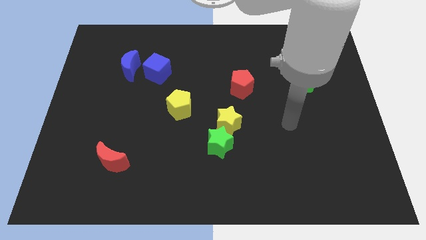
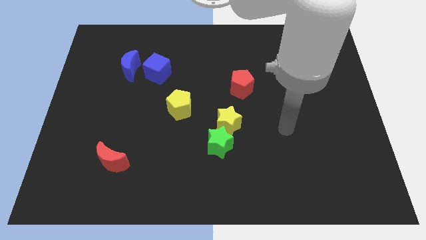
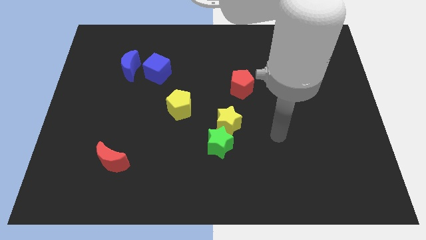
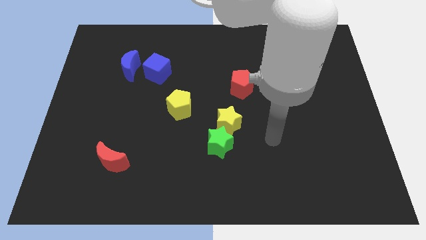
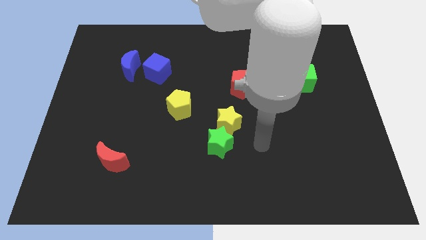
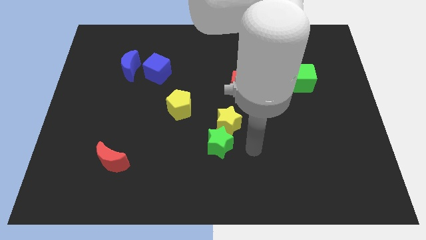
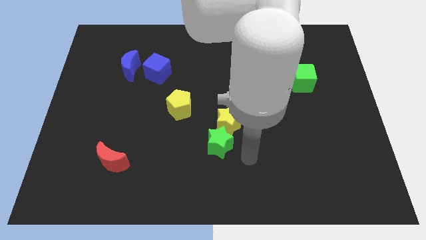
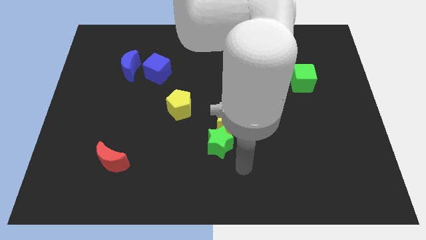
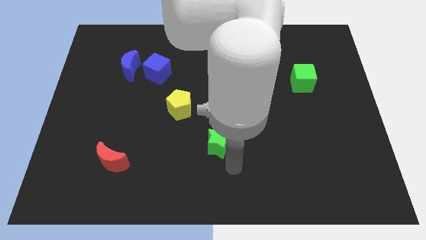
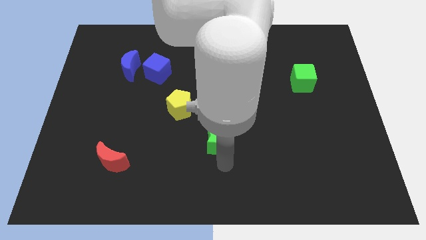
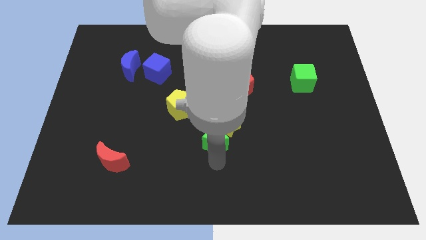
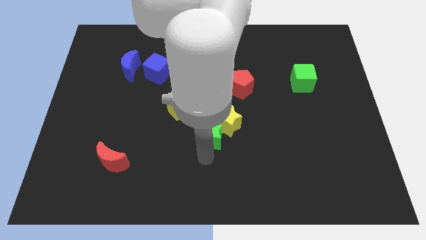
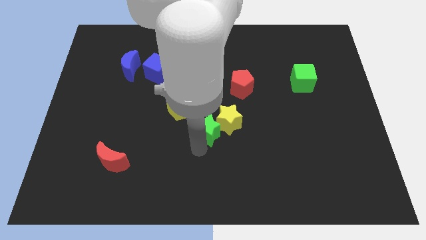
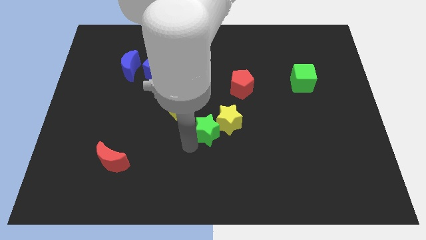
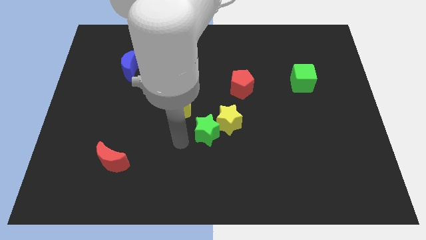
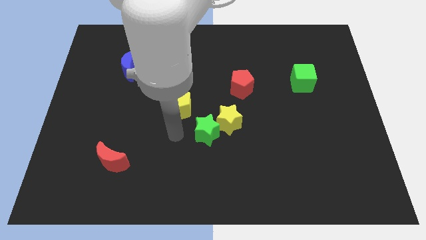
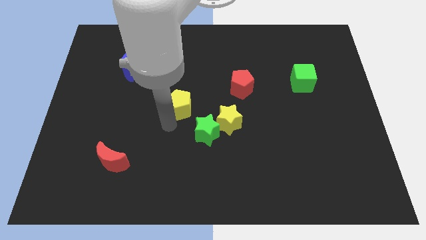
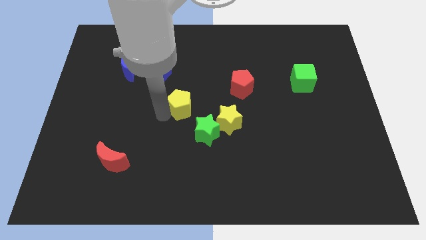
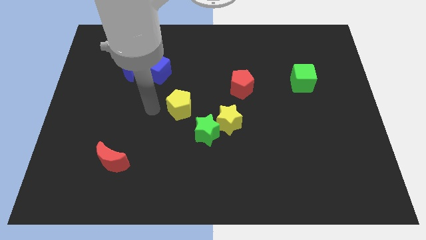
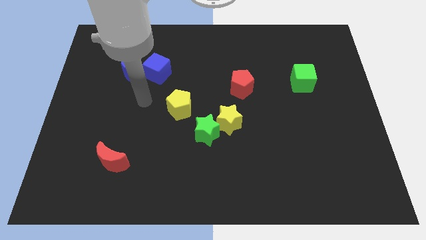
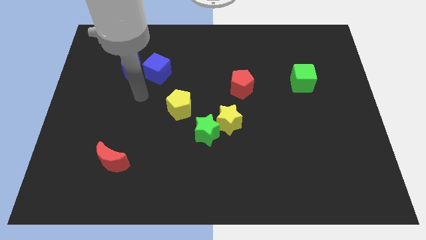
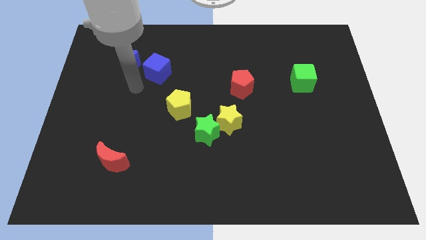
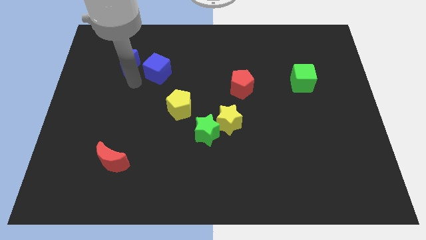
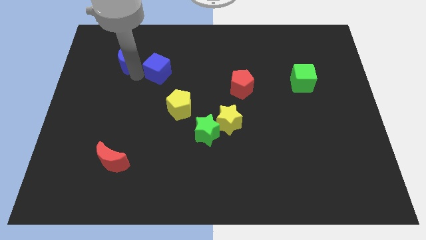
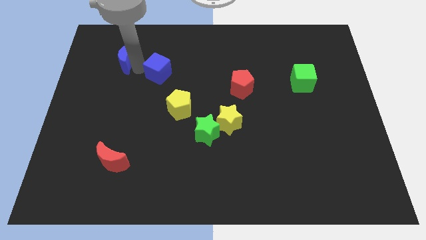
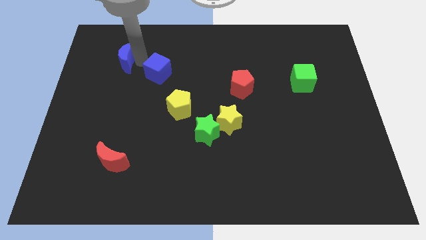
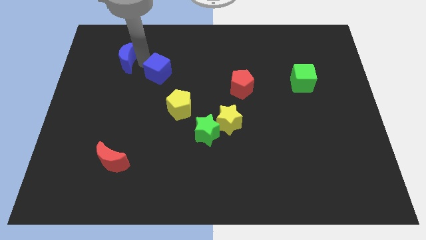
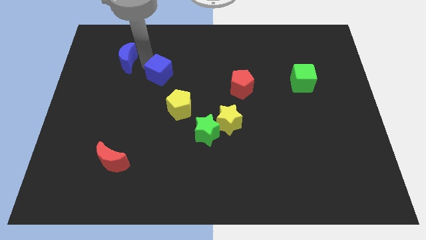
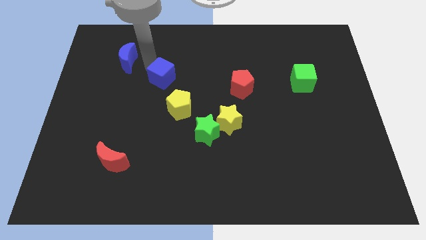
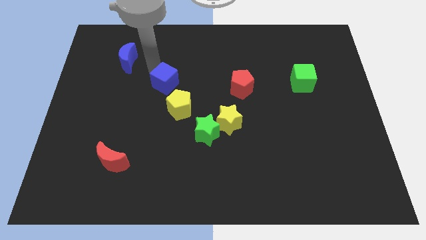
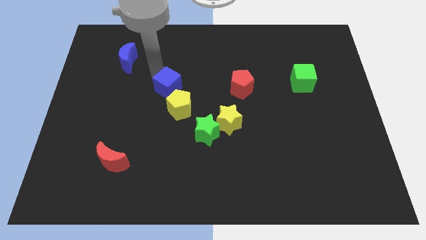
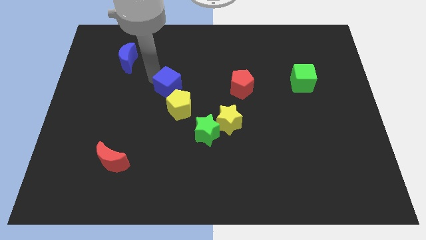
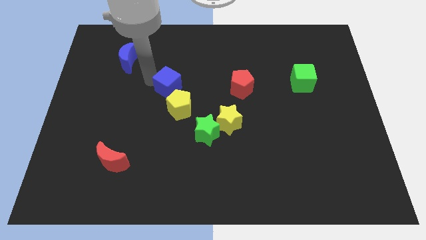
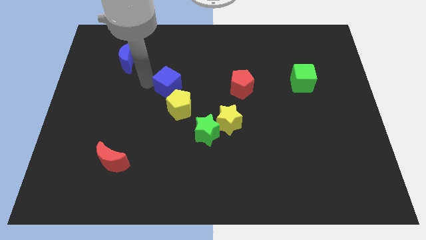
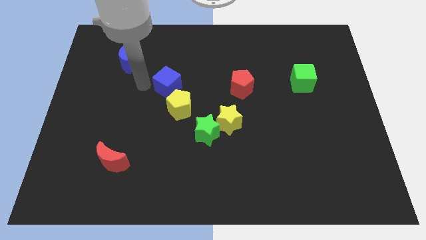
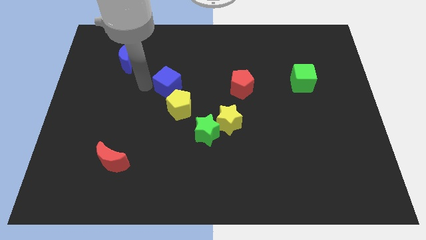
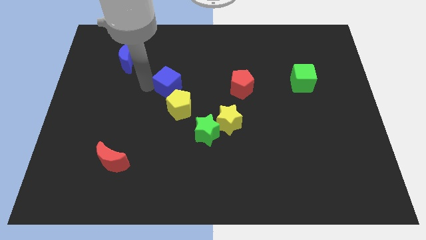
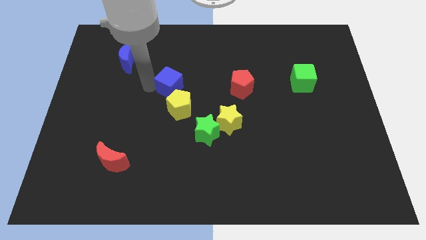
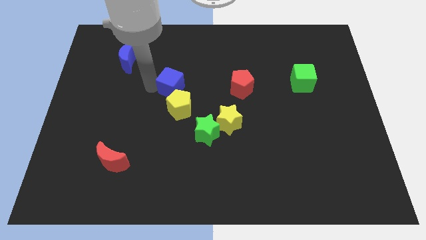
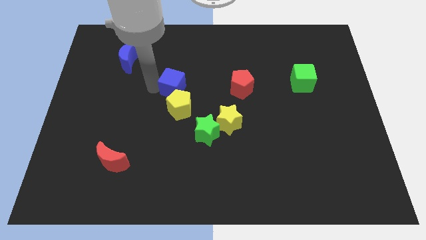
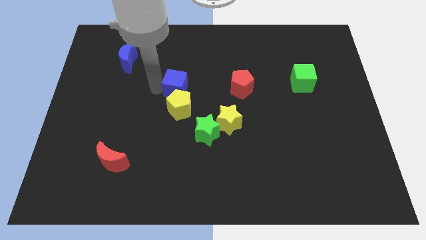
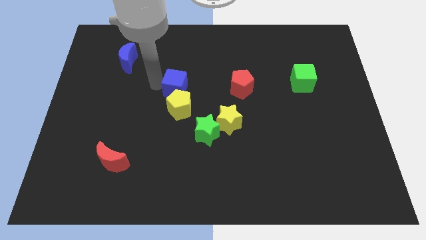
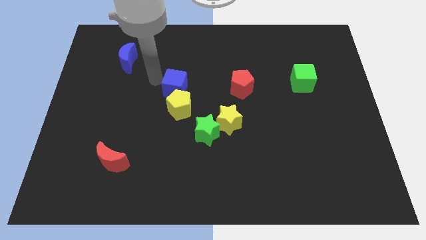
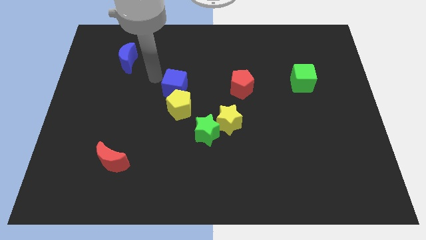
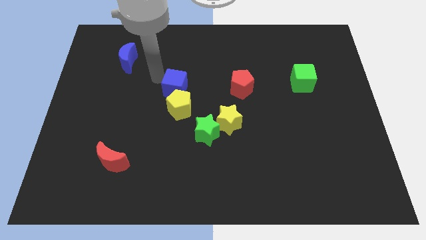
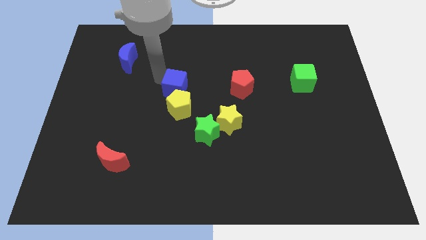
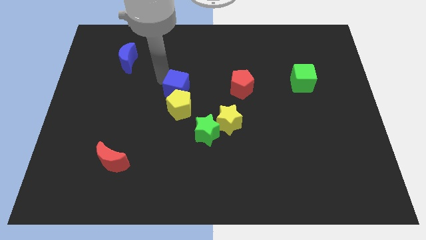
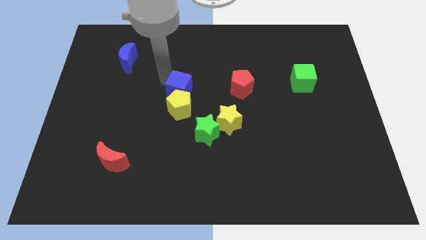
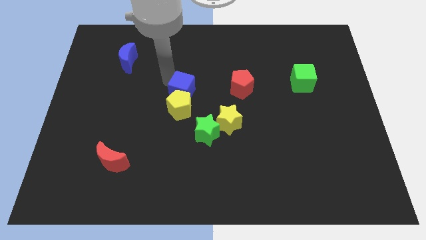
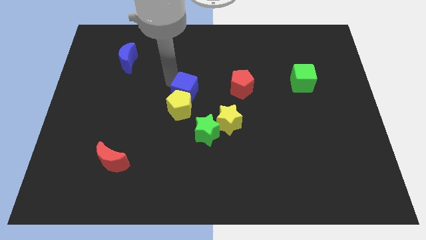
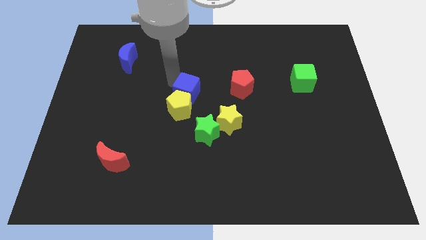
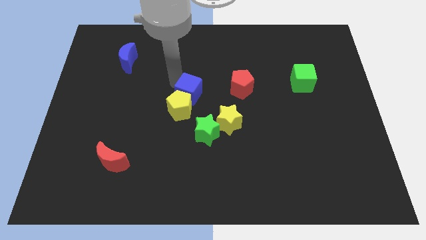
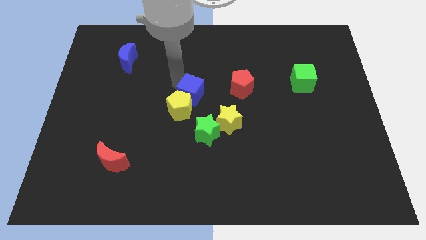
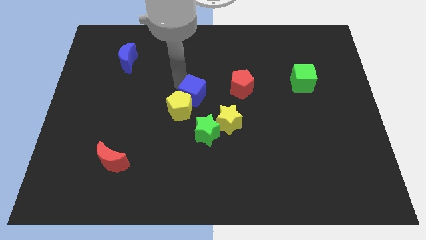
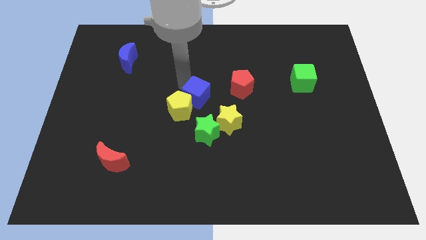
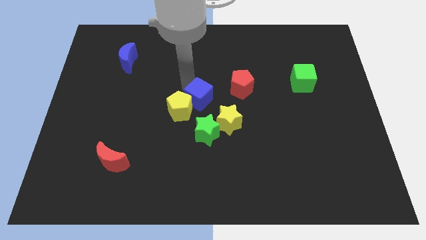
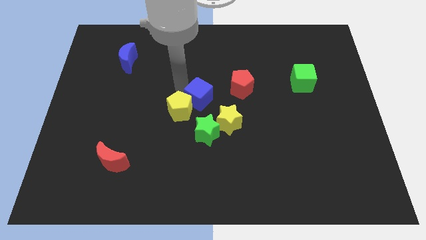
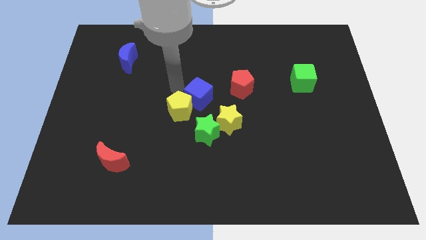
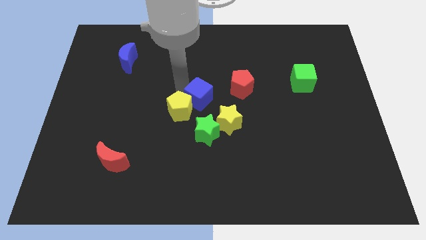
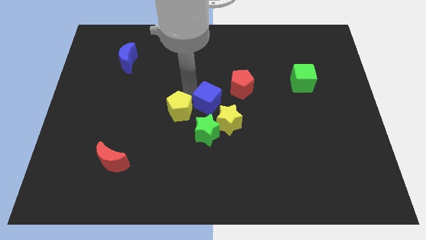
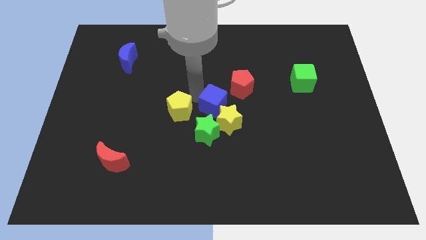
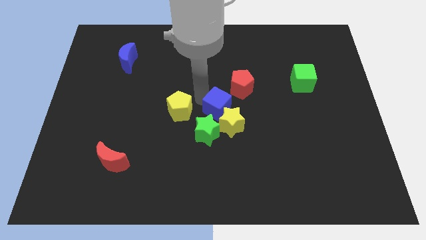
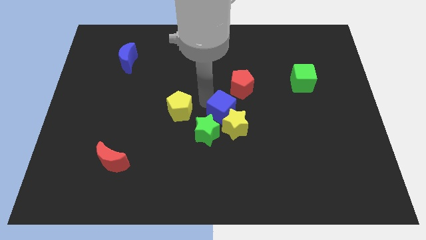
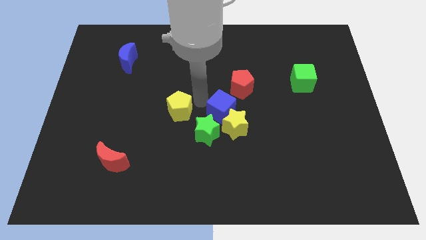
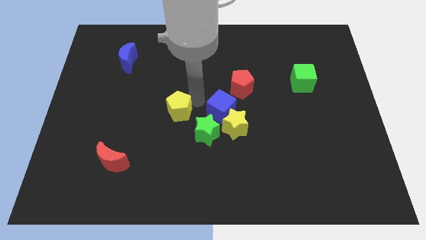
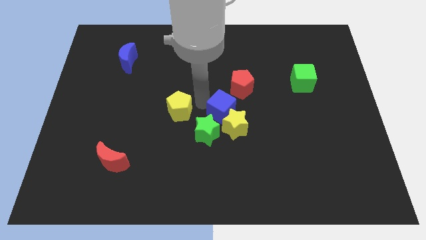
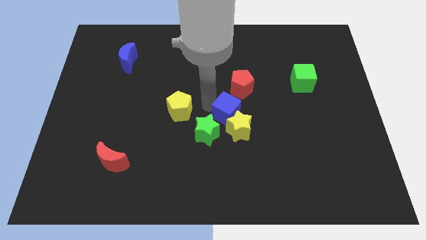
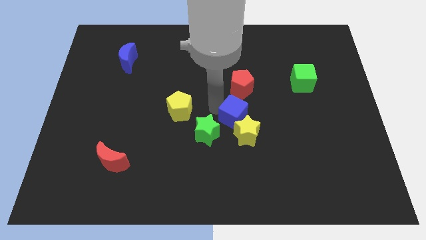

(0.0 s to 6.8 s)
push the blue cube to the right of the green star

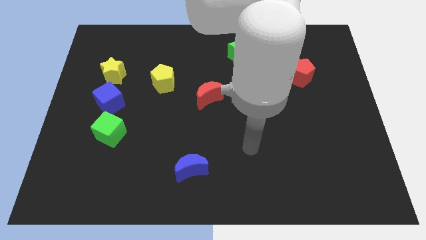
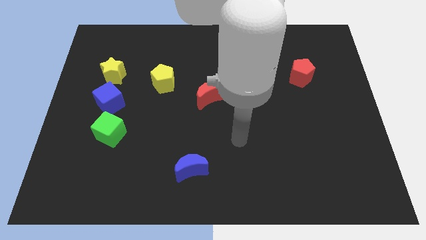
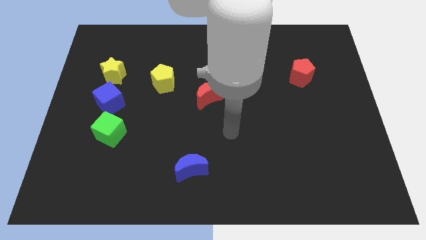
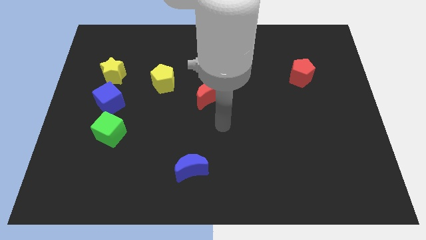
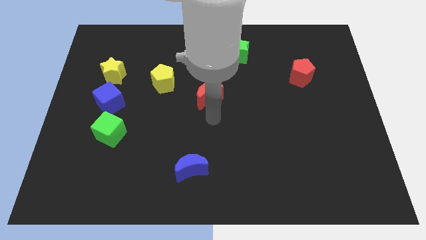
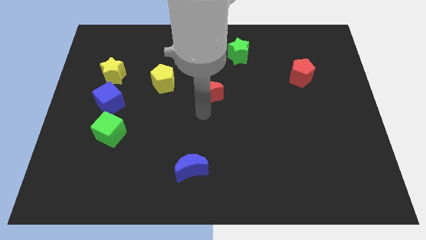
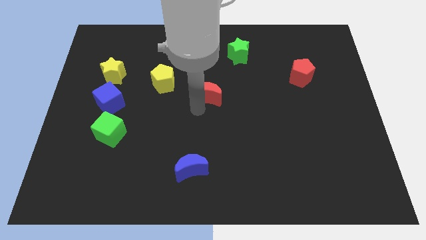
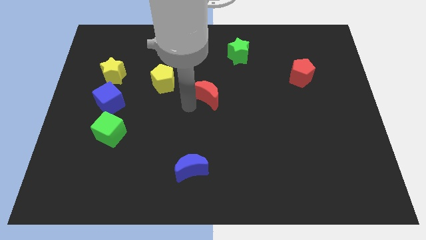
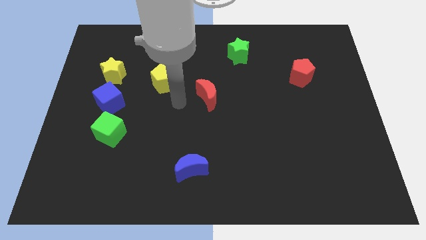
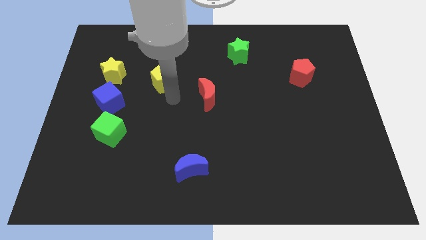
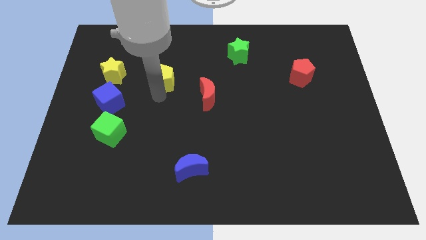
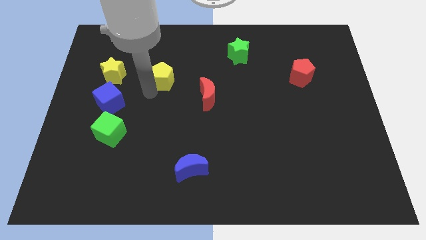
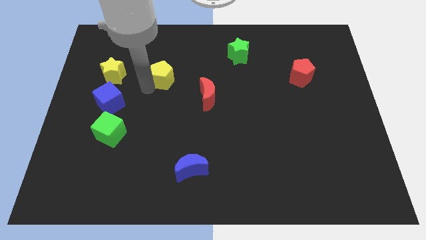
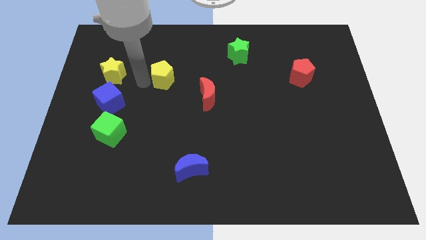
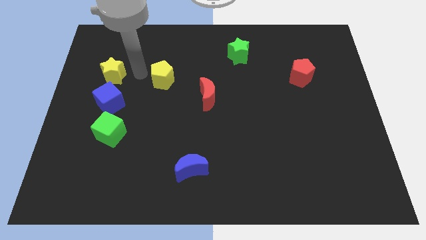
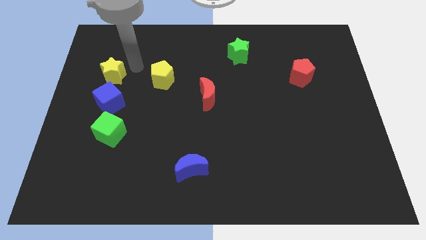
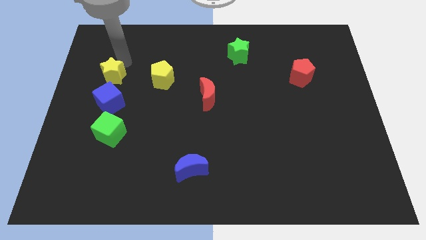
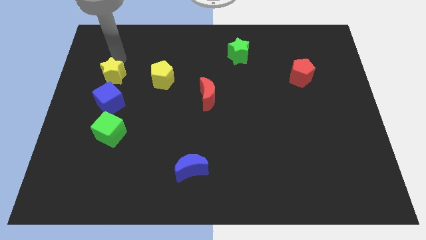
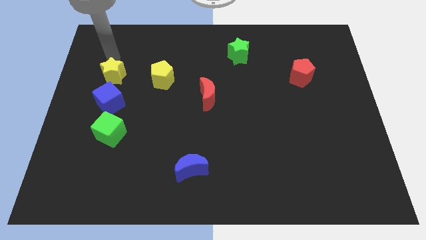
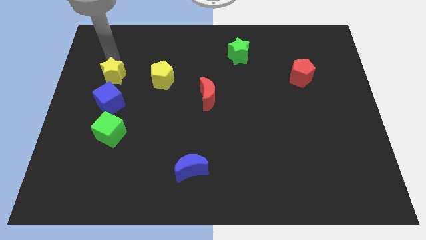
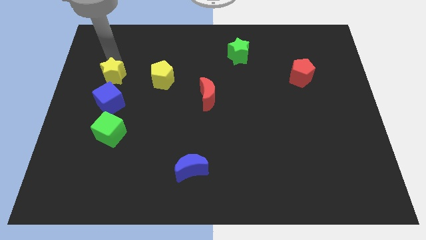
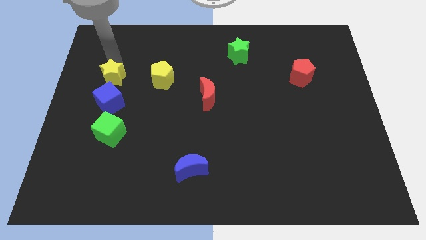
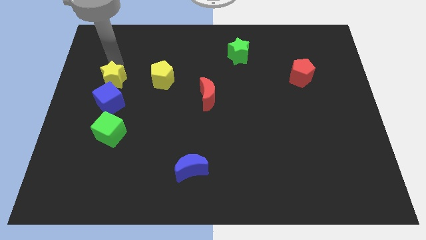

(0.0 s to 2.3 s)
put the yellow star above the green cube
